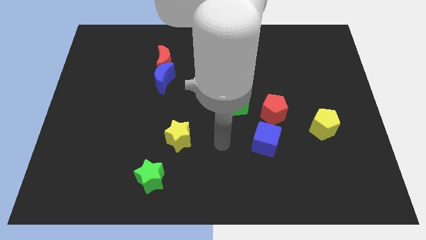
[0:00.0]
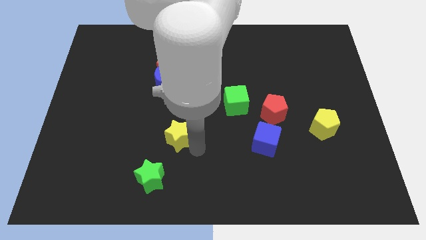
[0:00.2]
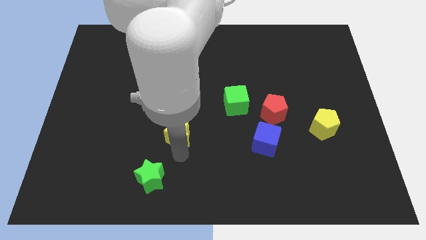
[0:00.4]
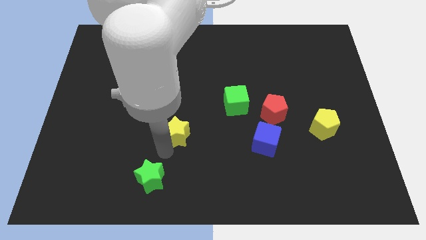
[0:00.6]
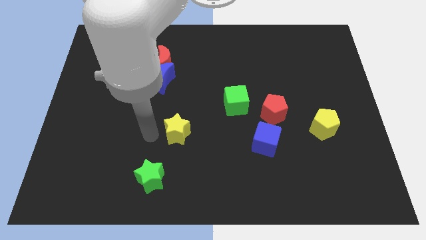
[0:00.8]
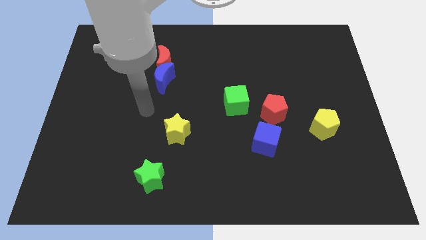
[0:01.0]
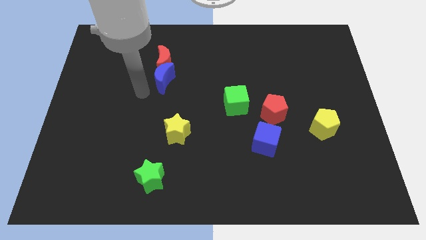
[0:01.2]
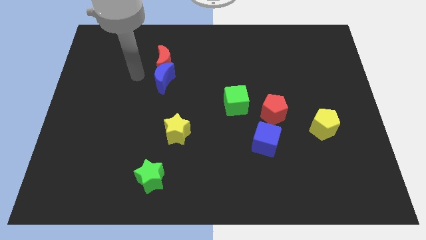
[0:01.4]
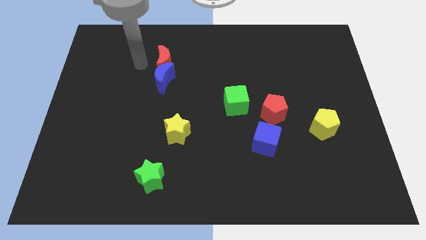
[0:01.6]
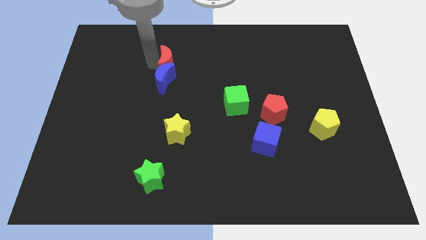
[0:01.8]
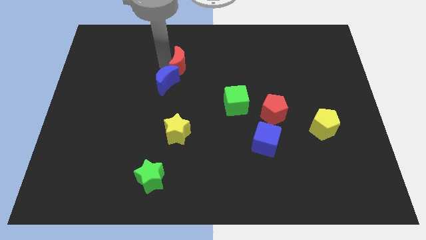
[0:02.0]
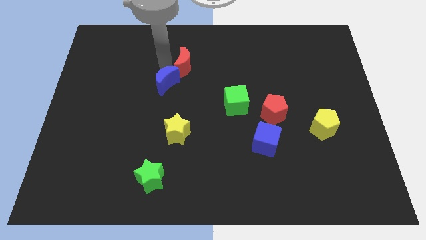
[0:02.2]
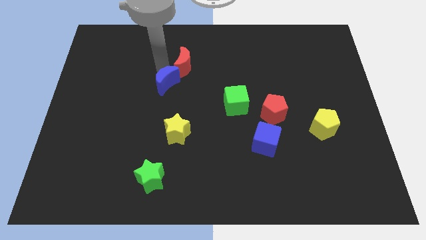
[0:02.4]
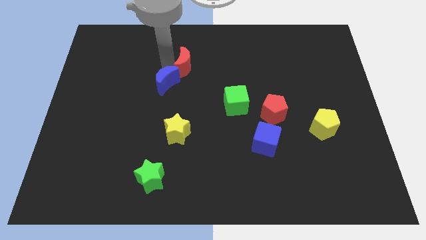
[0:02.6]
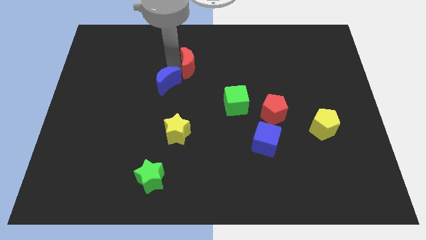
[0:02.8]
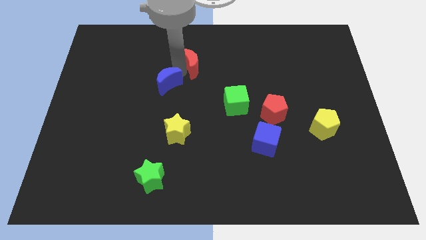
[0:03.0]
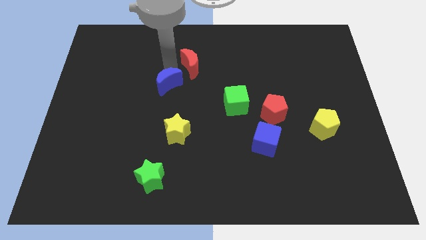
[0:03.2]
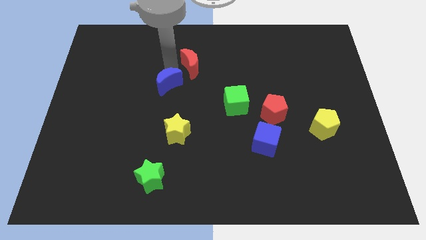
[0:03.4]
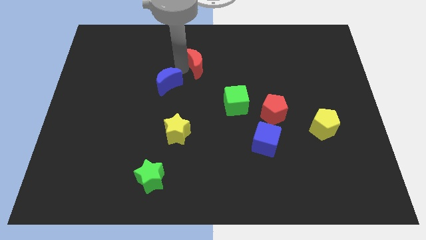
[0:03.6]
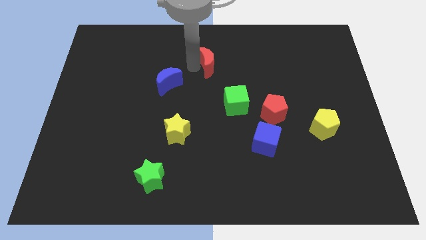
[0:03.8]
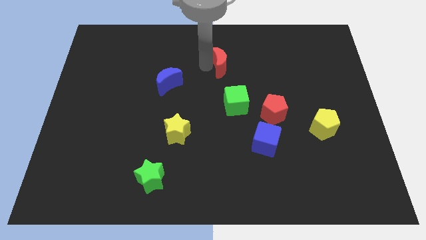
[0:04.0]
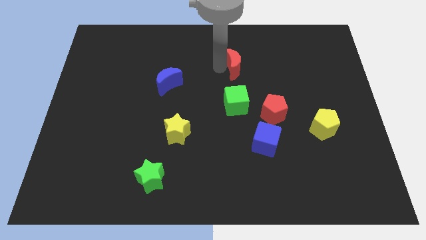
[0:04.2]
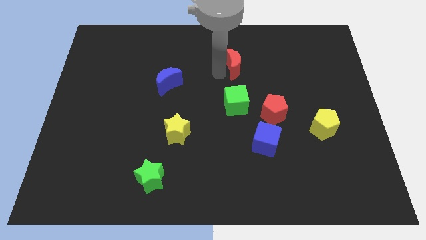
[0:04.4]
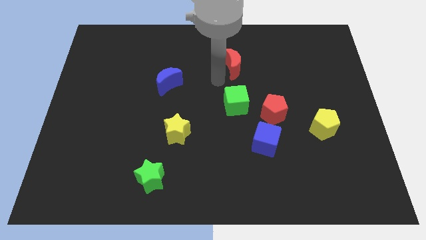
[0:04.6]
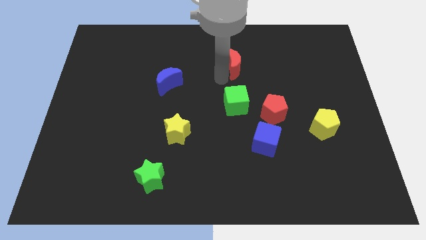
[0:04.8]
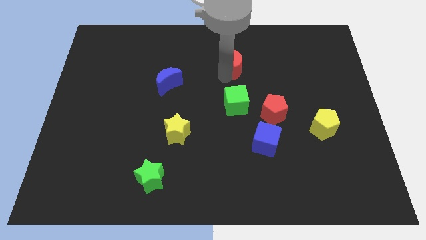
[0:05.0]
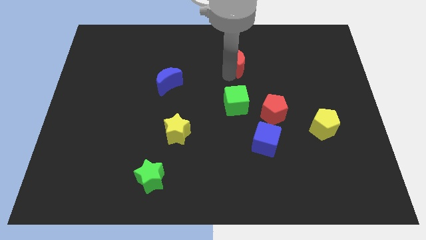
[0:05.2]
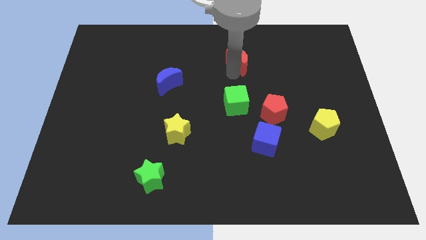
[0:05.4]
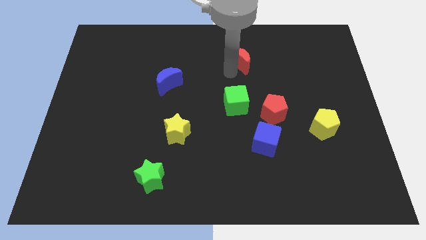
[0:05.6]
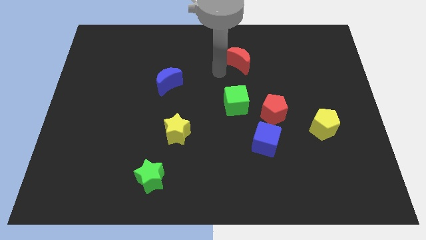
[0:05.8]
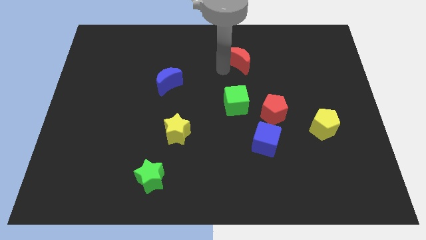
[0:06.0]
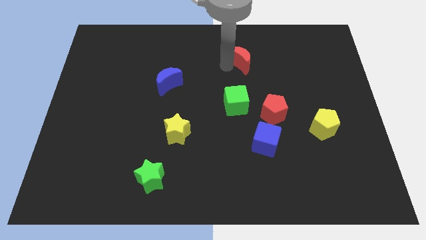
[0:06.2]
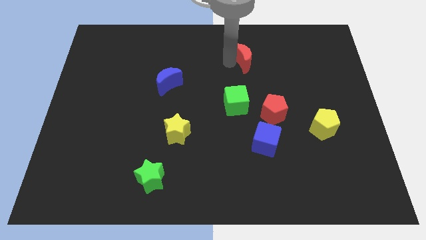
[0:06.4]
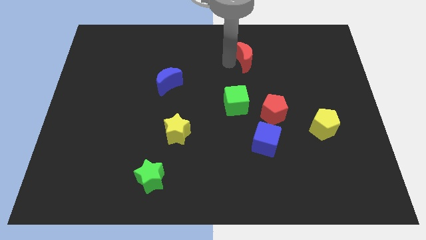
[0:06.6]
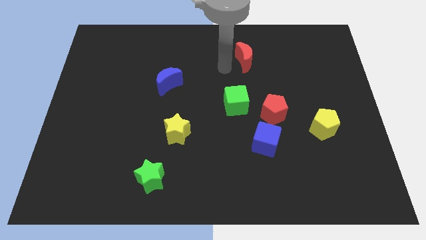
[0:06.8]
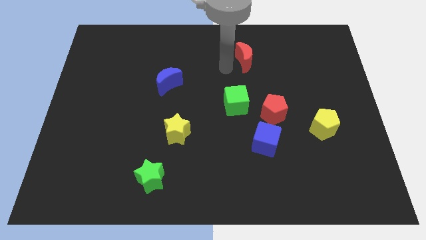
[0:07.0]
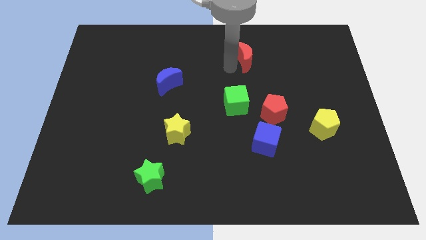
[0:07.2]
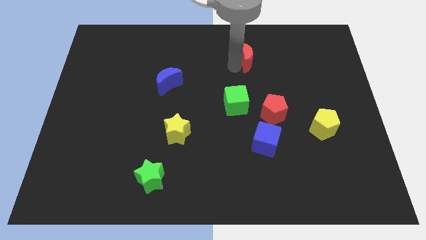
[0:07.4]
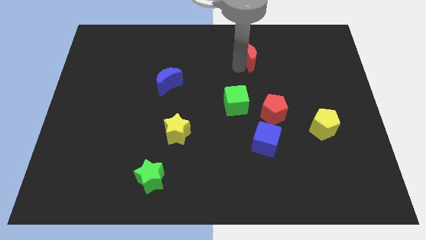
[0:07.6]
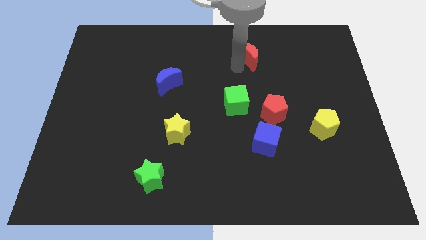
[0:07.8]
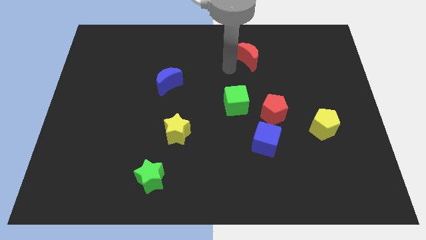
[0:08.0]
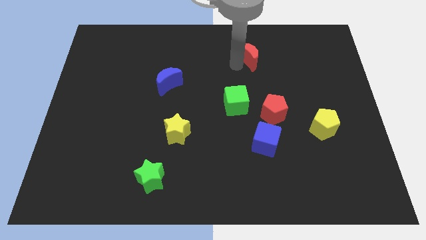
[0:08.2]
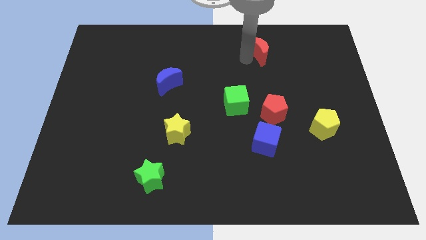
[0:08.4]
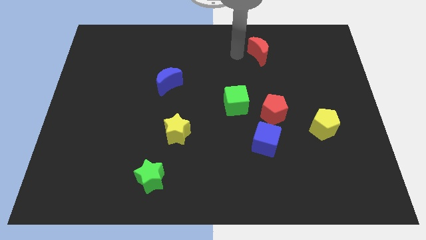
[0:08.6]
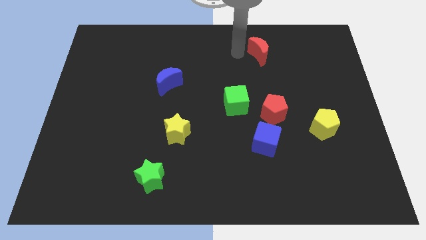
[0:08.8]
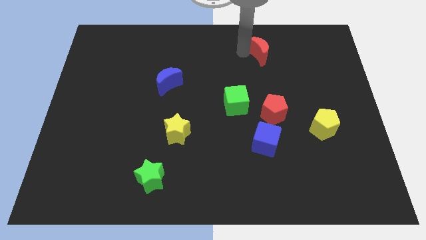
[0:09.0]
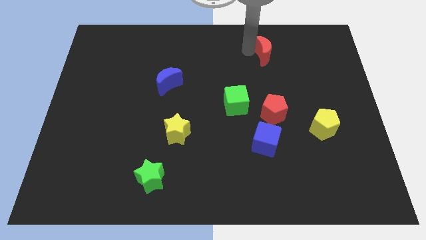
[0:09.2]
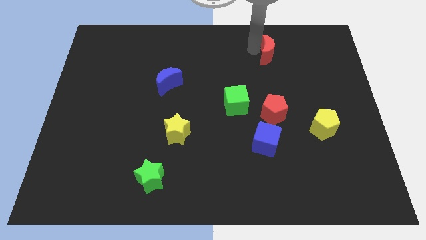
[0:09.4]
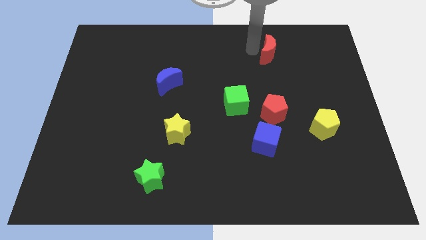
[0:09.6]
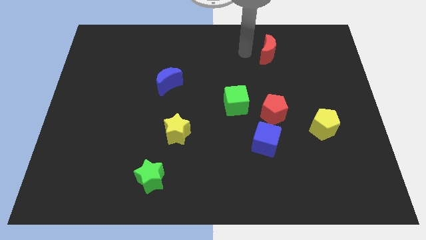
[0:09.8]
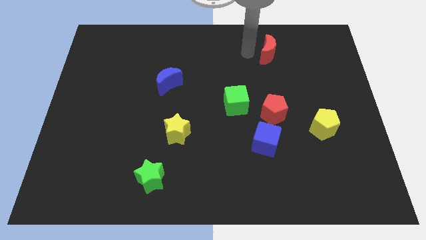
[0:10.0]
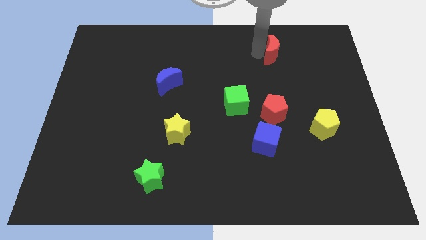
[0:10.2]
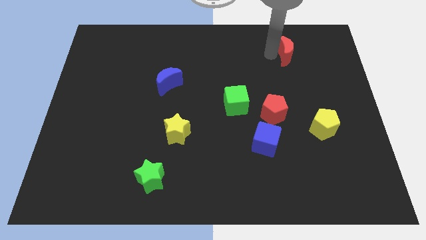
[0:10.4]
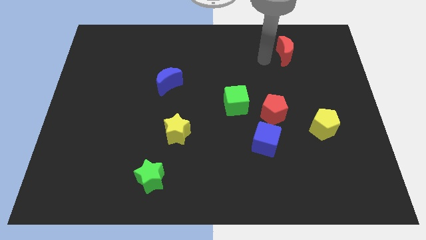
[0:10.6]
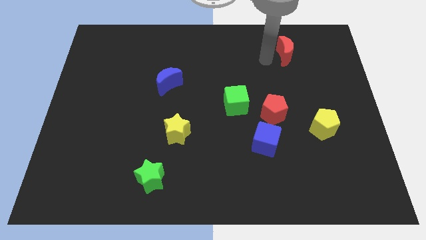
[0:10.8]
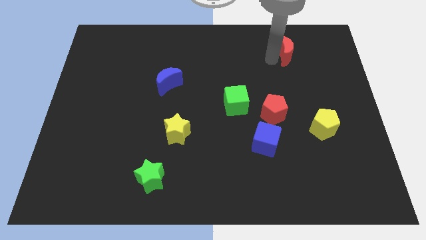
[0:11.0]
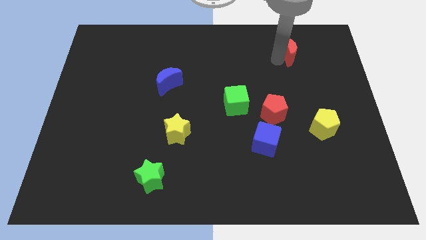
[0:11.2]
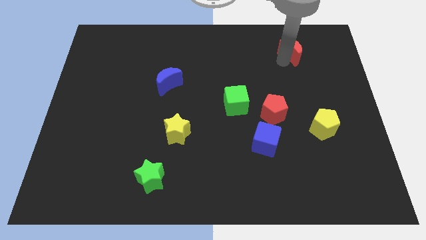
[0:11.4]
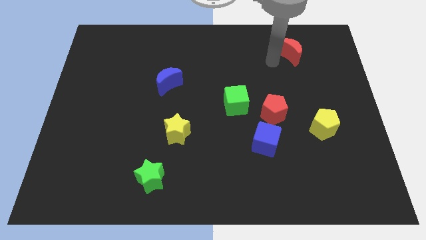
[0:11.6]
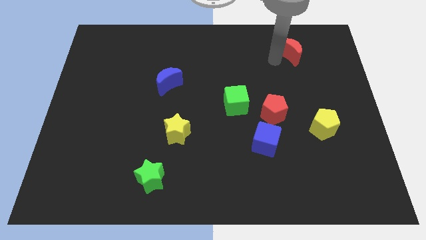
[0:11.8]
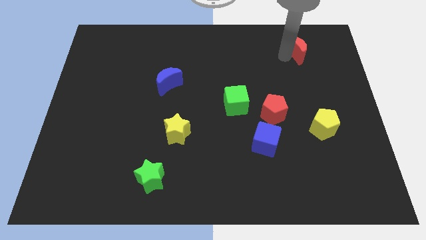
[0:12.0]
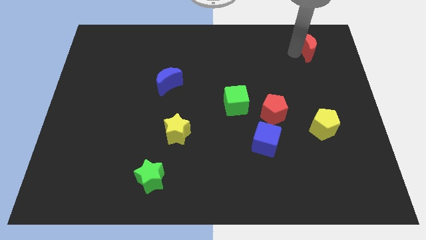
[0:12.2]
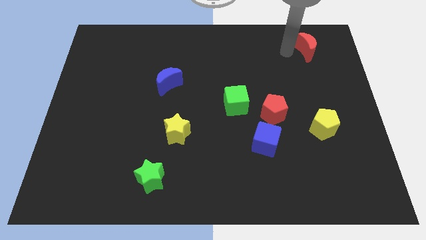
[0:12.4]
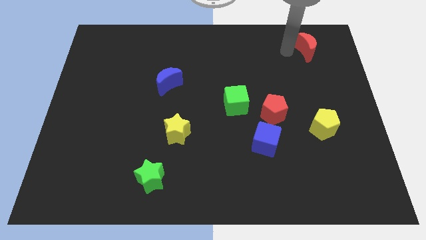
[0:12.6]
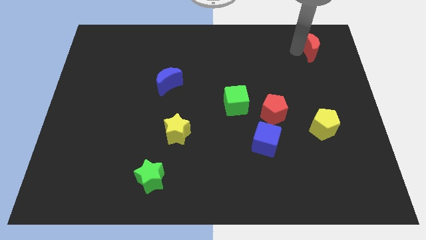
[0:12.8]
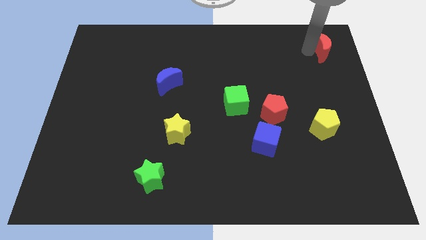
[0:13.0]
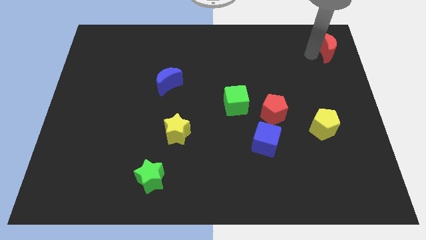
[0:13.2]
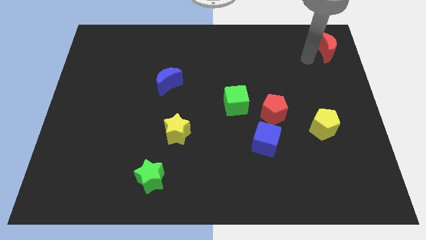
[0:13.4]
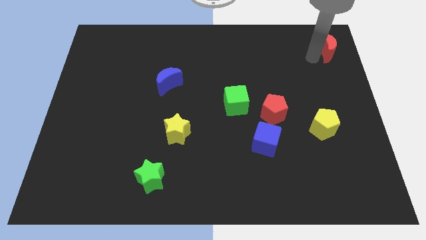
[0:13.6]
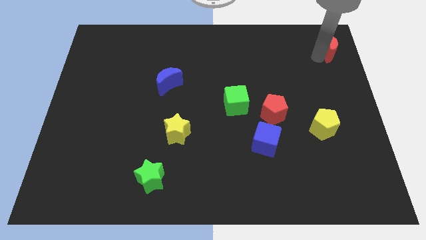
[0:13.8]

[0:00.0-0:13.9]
push the red moon to the top right corner

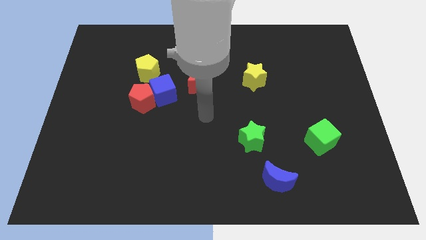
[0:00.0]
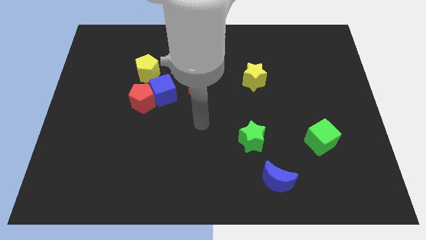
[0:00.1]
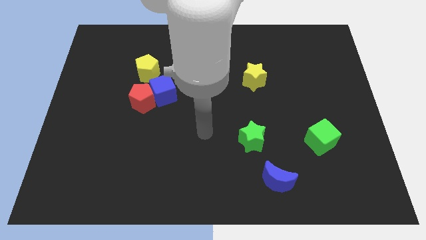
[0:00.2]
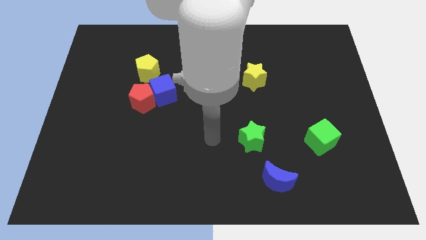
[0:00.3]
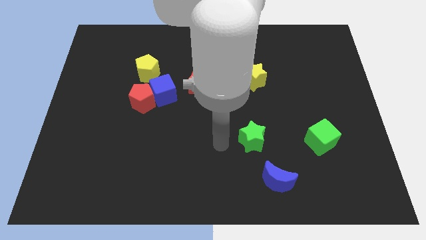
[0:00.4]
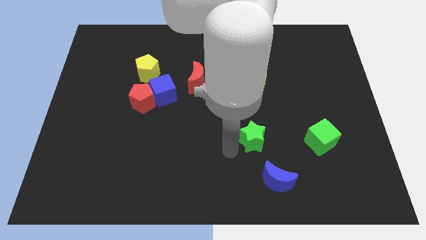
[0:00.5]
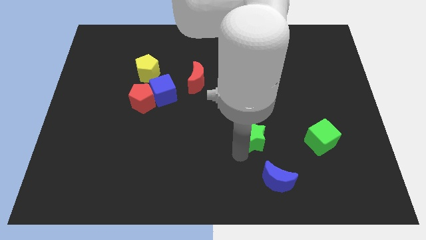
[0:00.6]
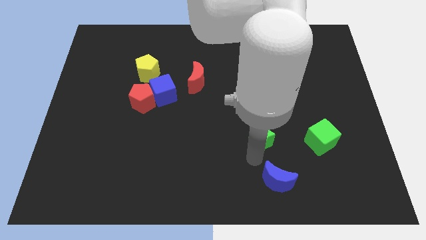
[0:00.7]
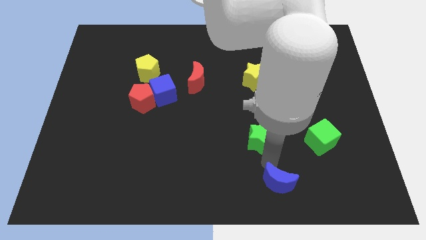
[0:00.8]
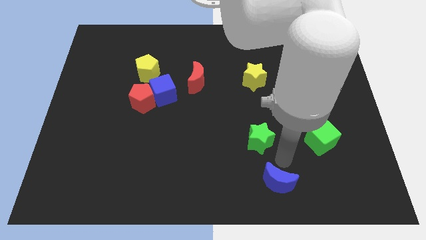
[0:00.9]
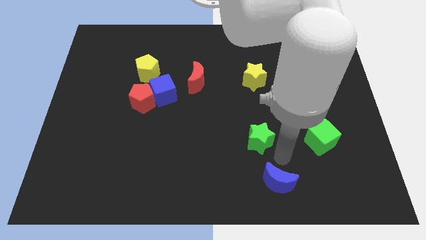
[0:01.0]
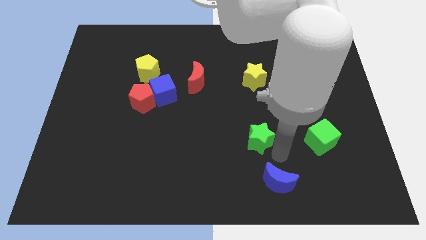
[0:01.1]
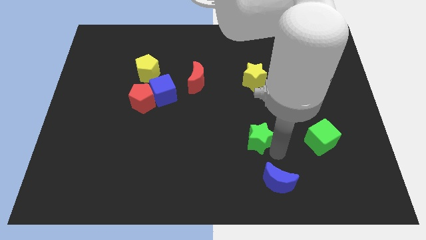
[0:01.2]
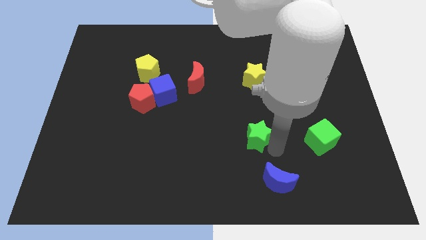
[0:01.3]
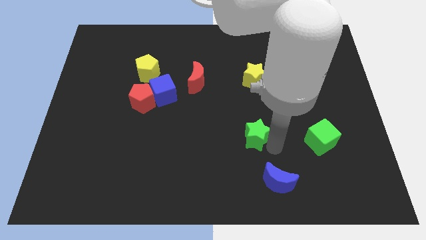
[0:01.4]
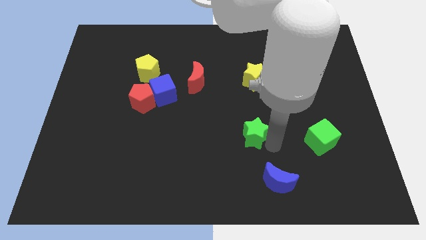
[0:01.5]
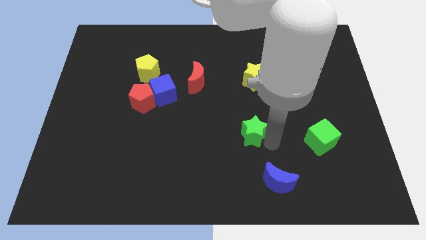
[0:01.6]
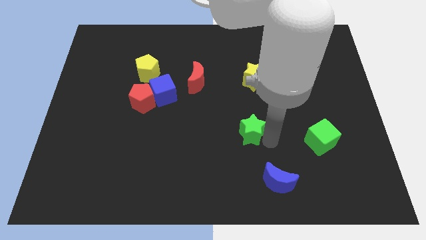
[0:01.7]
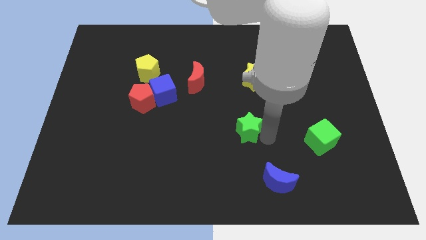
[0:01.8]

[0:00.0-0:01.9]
slide the green star to the middle of the board
